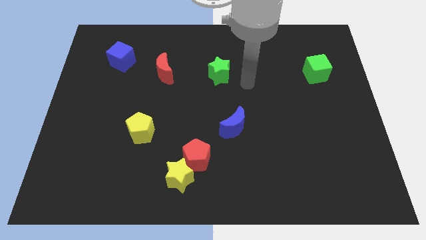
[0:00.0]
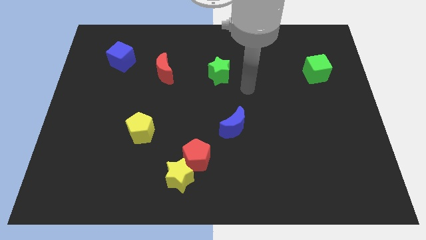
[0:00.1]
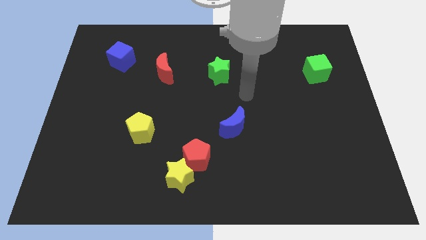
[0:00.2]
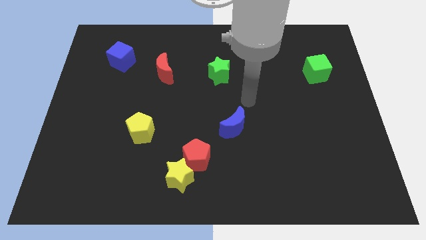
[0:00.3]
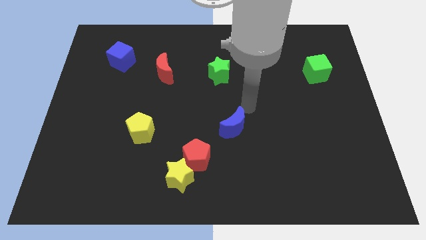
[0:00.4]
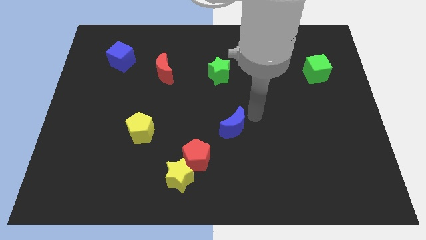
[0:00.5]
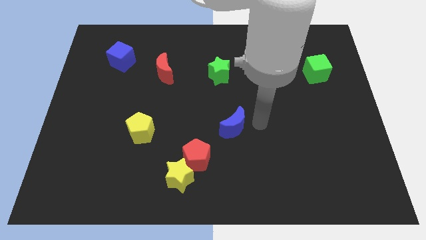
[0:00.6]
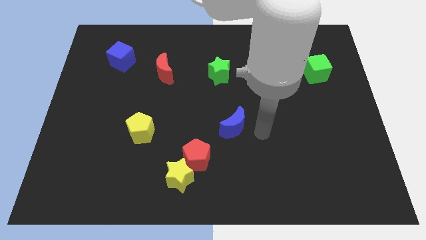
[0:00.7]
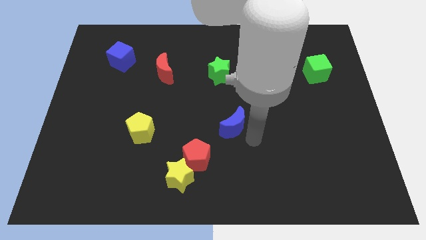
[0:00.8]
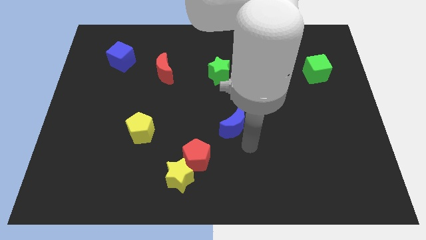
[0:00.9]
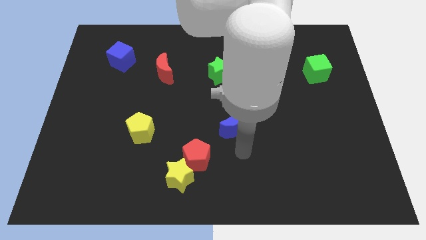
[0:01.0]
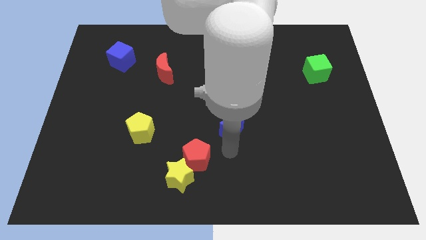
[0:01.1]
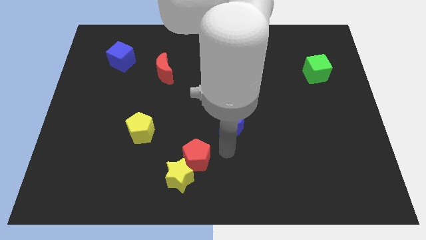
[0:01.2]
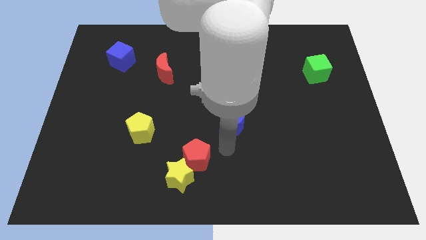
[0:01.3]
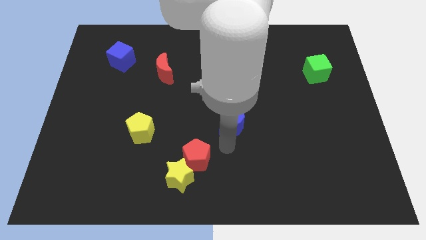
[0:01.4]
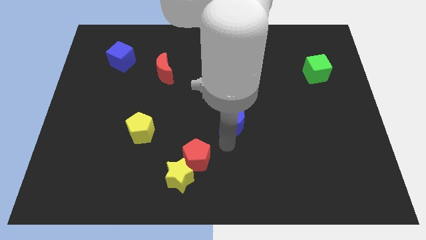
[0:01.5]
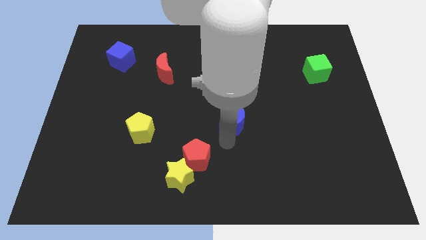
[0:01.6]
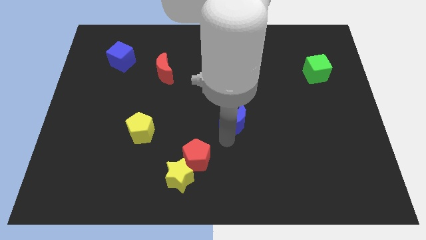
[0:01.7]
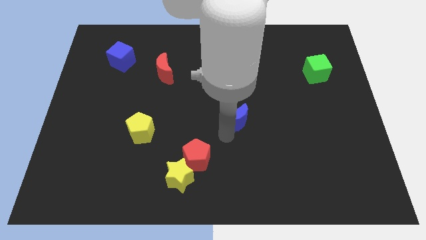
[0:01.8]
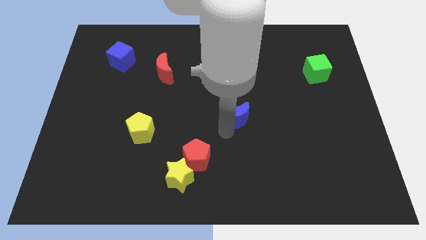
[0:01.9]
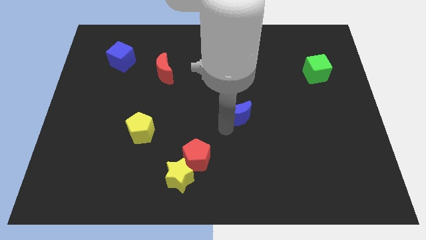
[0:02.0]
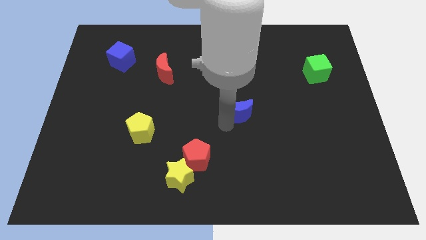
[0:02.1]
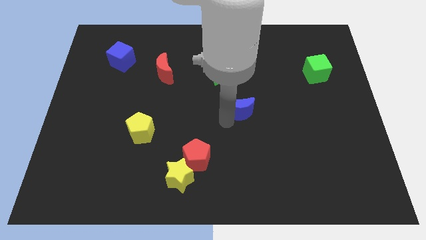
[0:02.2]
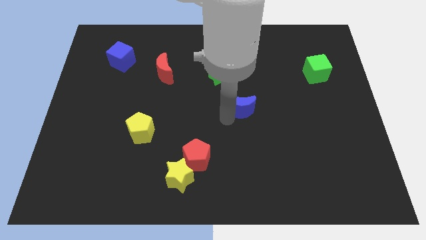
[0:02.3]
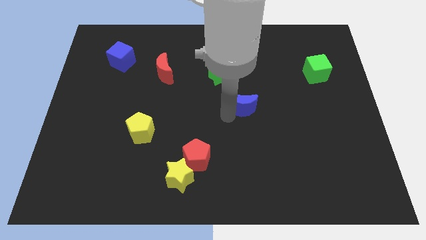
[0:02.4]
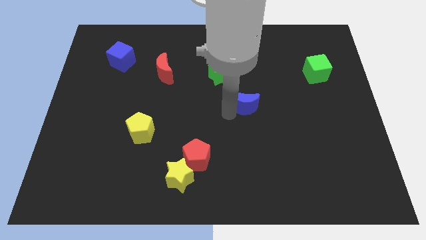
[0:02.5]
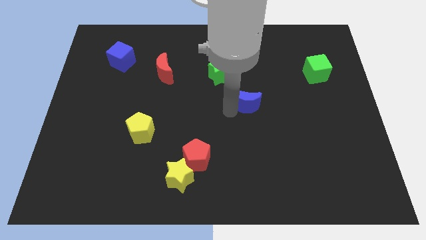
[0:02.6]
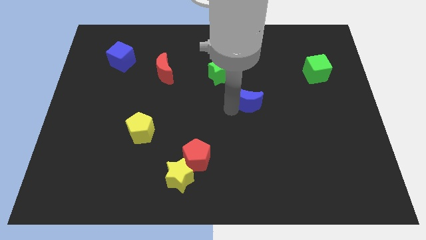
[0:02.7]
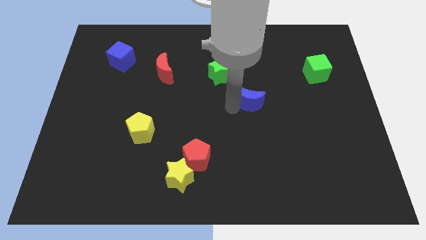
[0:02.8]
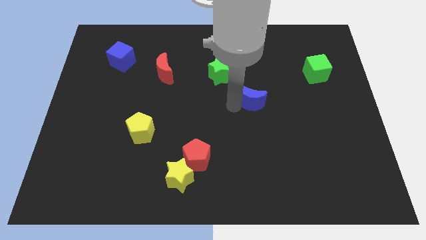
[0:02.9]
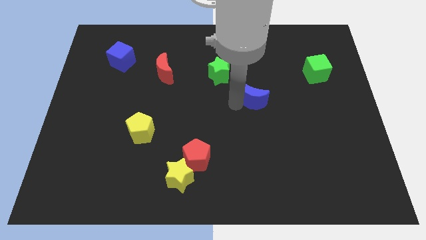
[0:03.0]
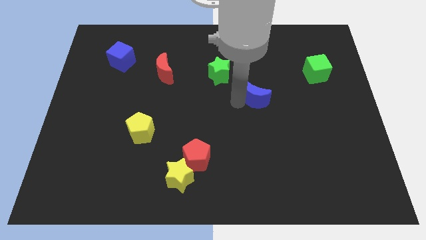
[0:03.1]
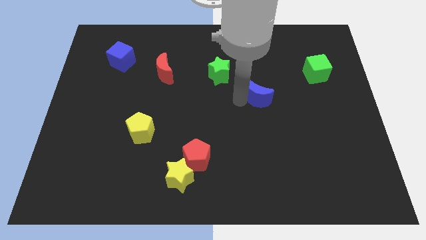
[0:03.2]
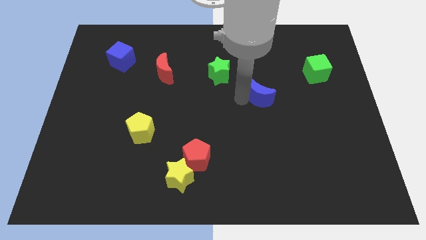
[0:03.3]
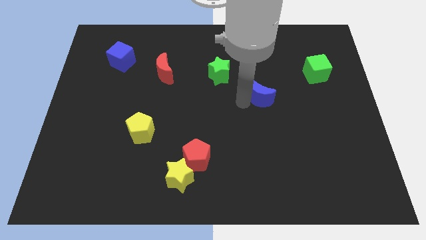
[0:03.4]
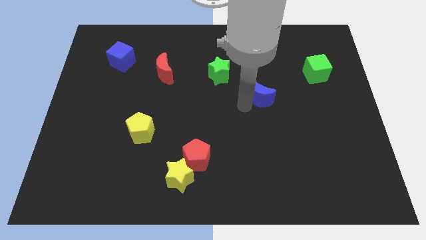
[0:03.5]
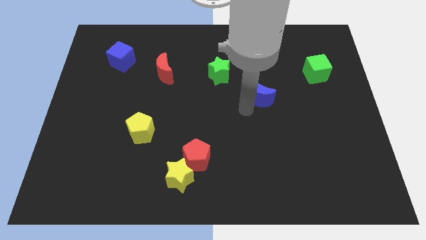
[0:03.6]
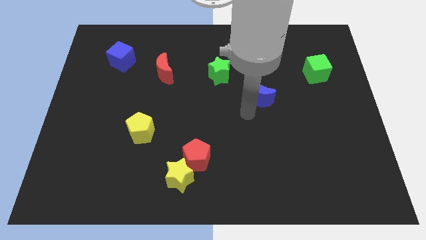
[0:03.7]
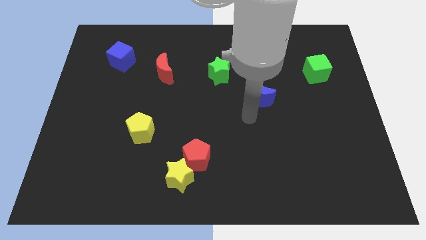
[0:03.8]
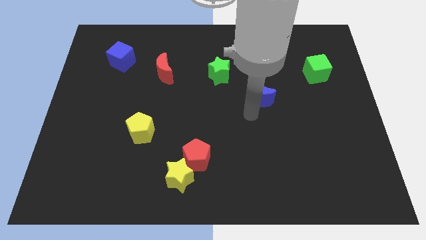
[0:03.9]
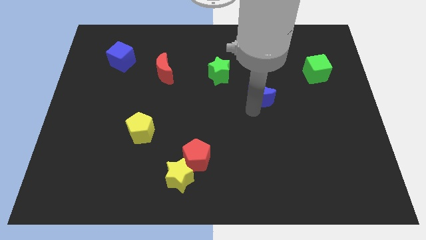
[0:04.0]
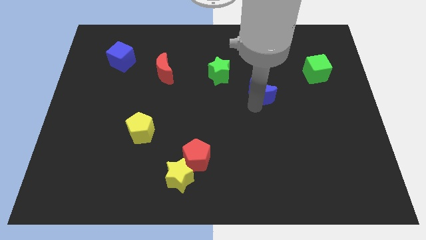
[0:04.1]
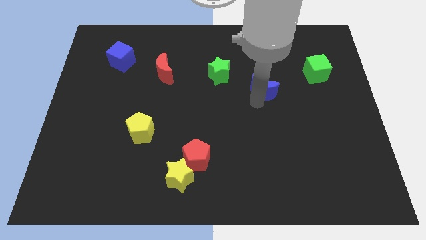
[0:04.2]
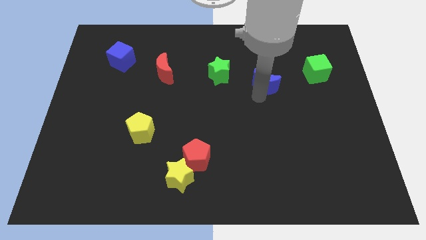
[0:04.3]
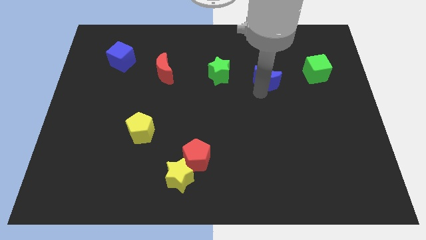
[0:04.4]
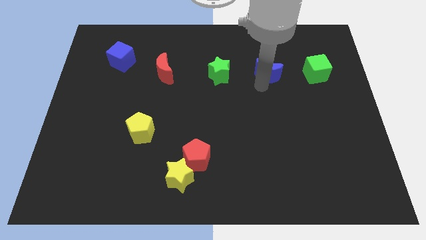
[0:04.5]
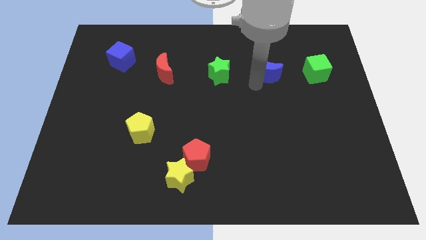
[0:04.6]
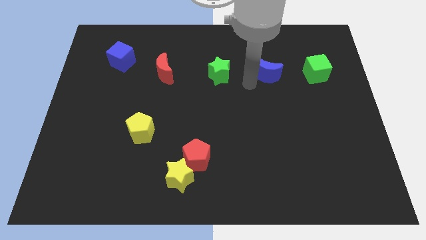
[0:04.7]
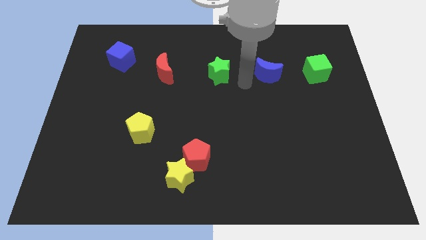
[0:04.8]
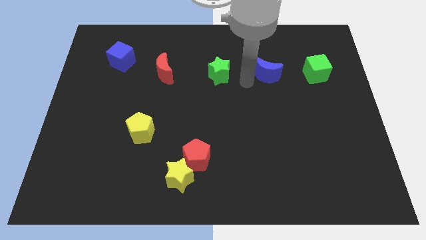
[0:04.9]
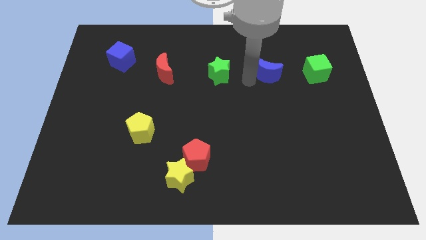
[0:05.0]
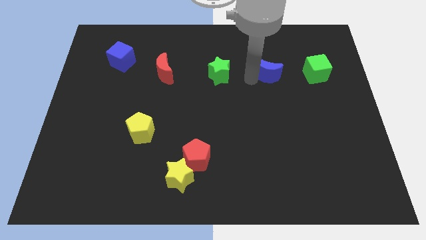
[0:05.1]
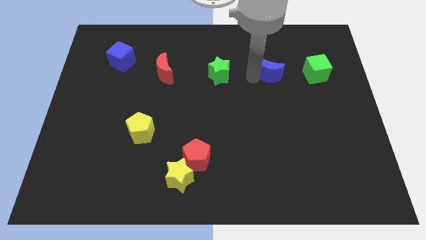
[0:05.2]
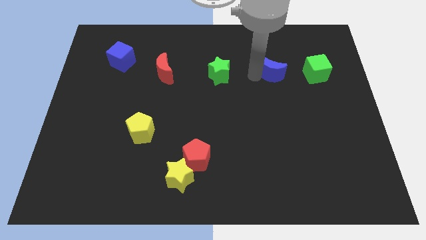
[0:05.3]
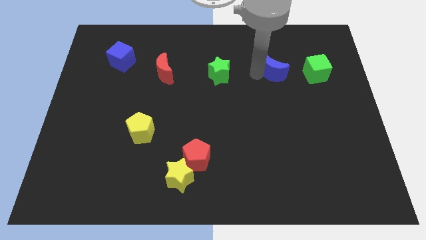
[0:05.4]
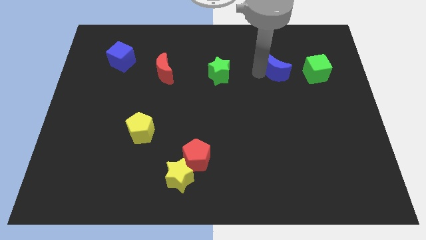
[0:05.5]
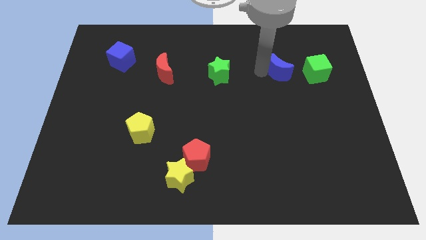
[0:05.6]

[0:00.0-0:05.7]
move the blue moon diagonally upwards and right

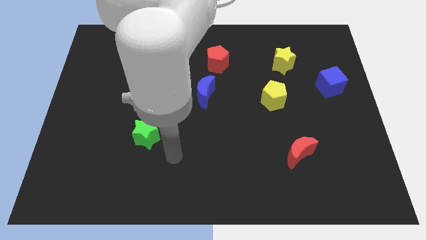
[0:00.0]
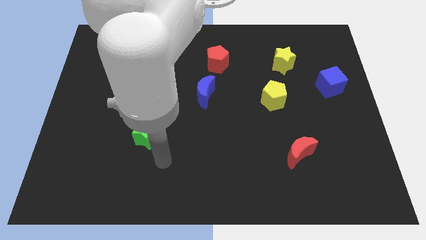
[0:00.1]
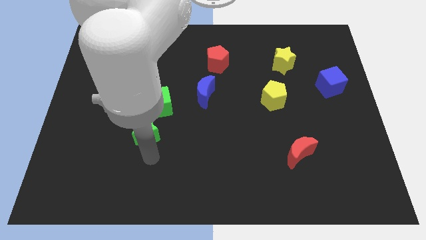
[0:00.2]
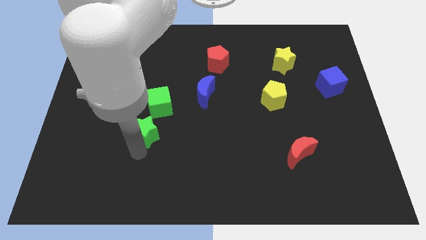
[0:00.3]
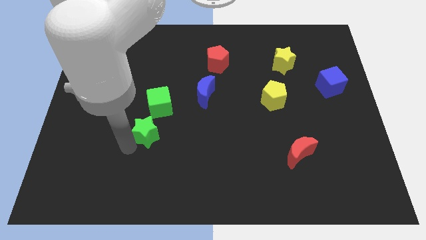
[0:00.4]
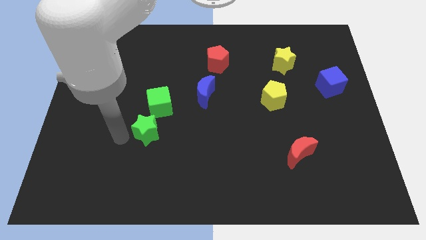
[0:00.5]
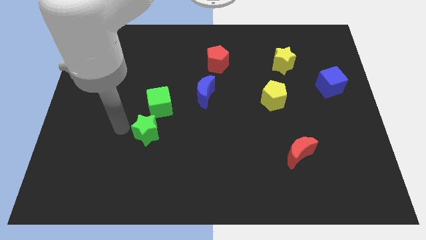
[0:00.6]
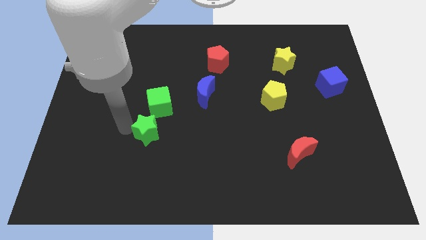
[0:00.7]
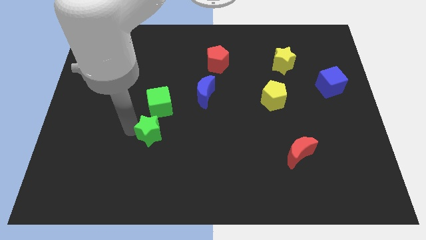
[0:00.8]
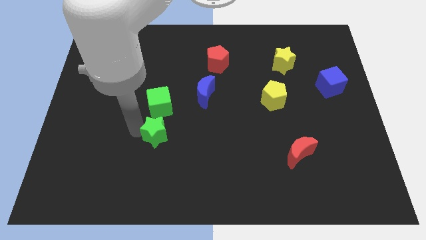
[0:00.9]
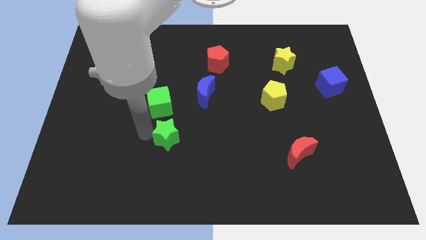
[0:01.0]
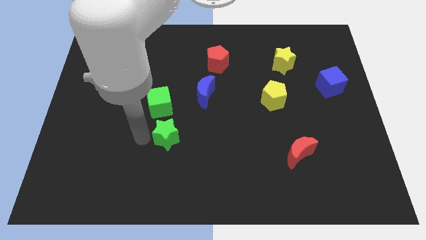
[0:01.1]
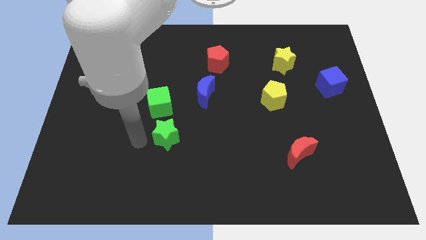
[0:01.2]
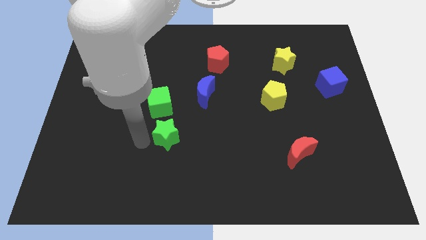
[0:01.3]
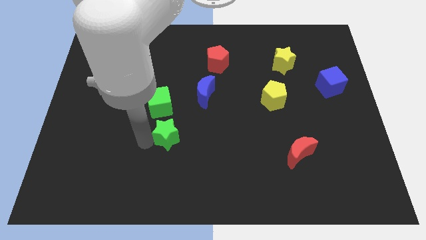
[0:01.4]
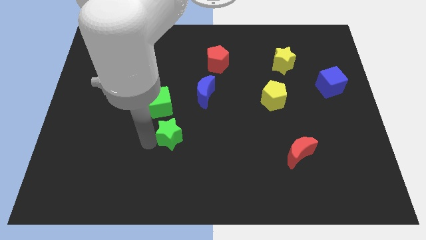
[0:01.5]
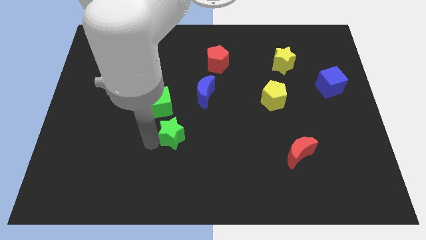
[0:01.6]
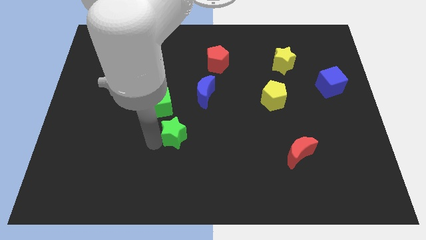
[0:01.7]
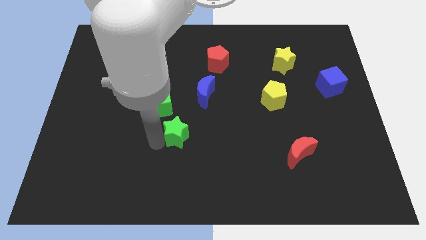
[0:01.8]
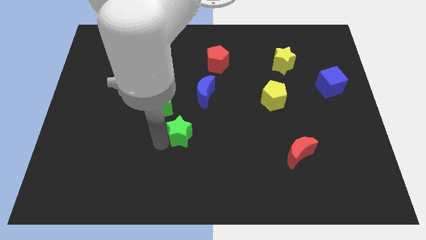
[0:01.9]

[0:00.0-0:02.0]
slightly move the green star right

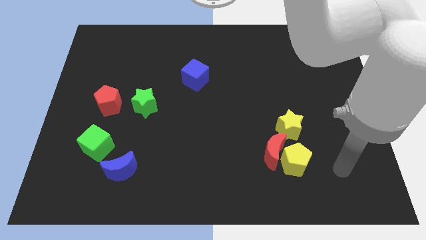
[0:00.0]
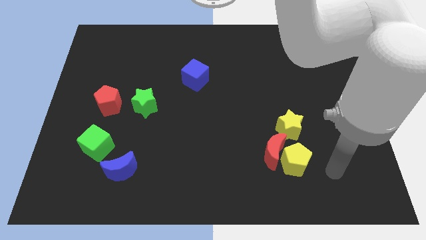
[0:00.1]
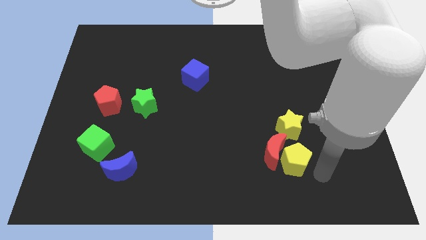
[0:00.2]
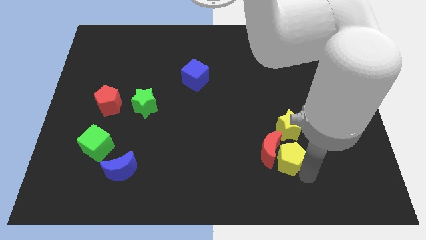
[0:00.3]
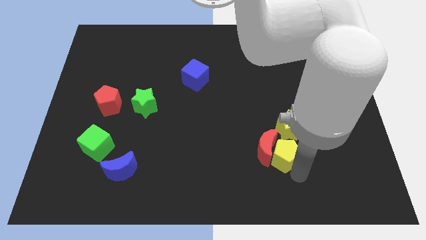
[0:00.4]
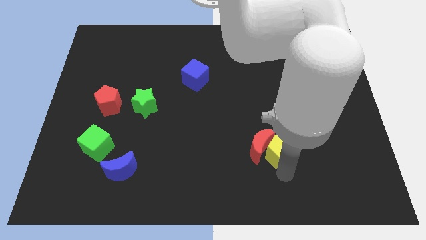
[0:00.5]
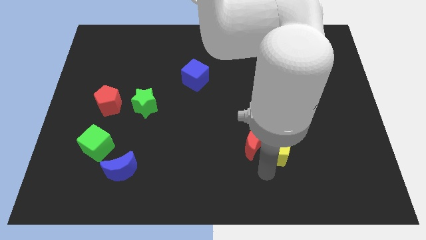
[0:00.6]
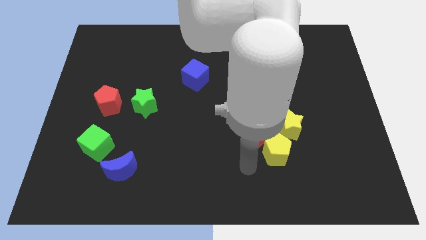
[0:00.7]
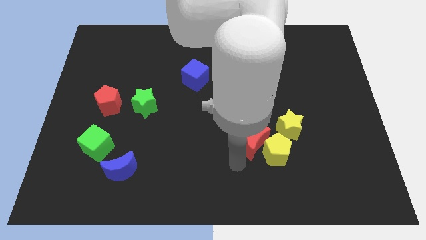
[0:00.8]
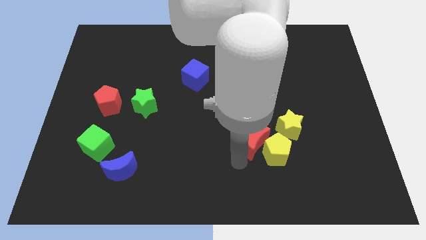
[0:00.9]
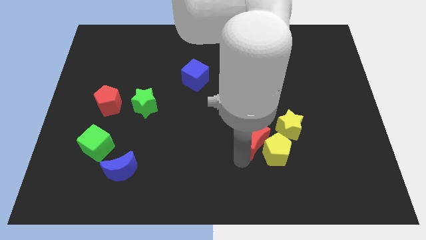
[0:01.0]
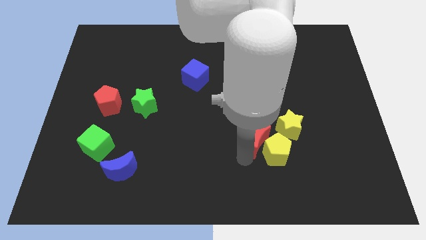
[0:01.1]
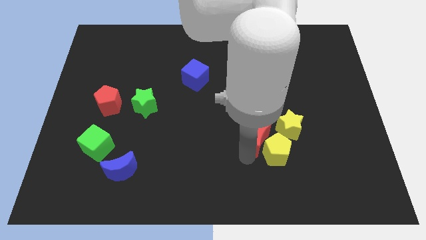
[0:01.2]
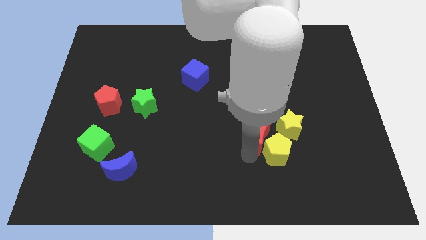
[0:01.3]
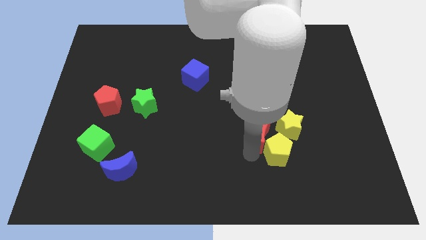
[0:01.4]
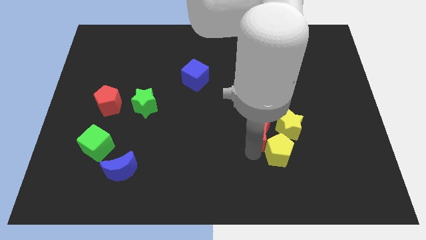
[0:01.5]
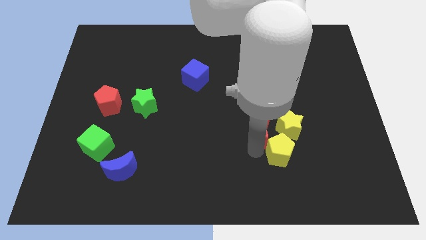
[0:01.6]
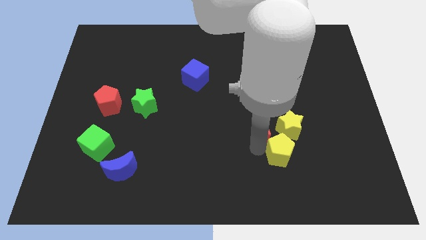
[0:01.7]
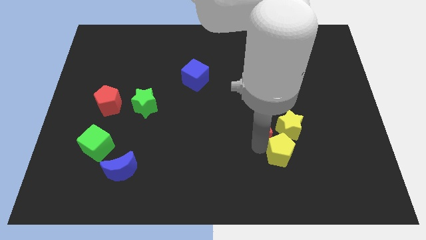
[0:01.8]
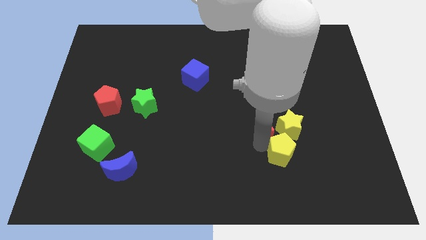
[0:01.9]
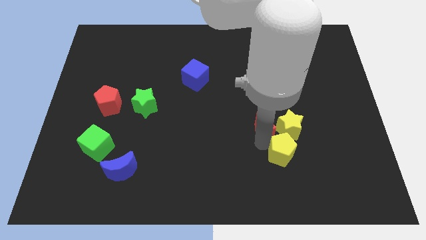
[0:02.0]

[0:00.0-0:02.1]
slightly push the red moon up
